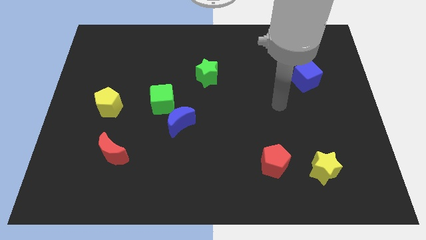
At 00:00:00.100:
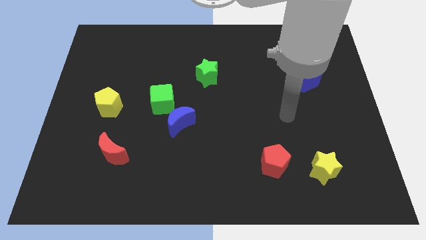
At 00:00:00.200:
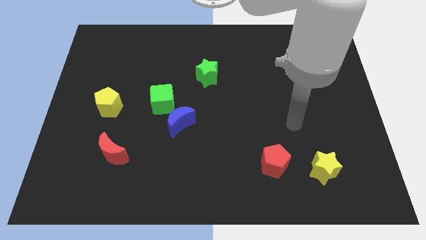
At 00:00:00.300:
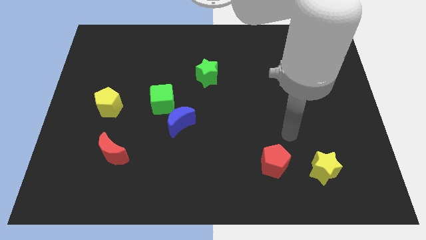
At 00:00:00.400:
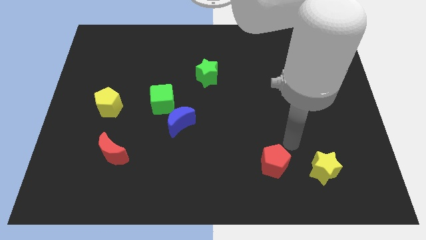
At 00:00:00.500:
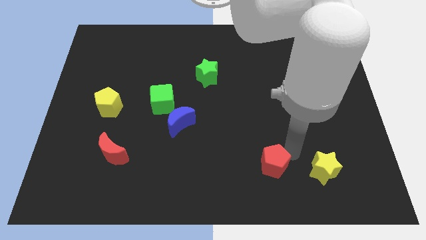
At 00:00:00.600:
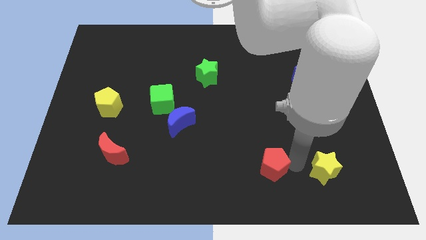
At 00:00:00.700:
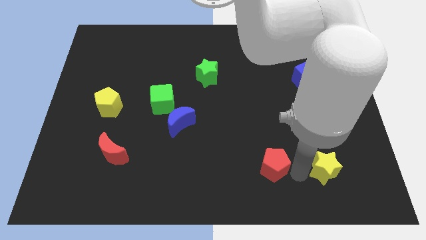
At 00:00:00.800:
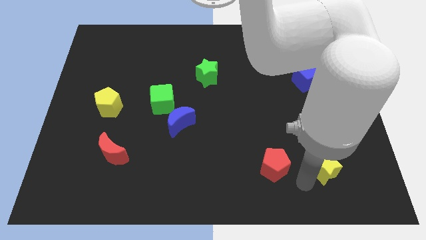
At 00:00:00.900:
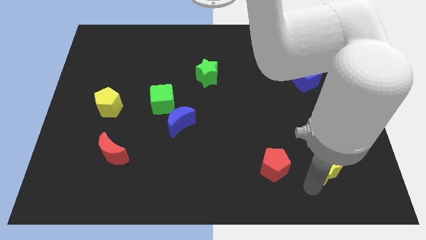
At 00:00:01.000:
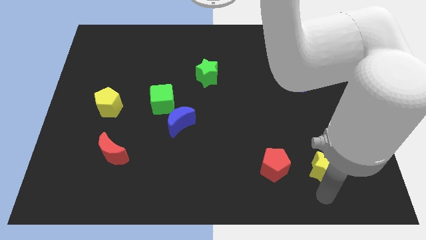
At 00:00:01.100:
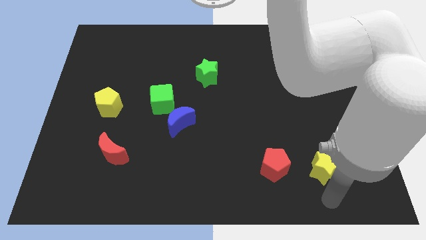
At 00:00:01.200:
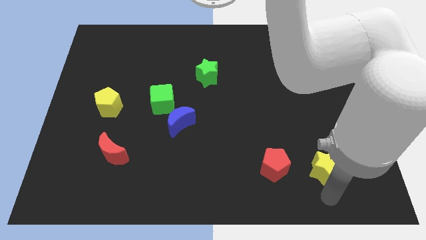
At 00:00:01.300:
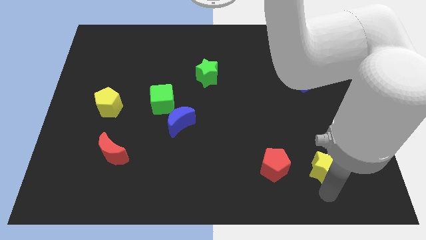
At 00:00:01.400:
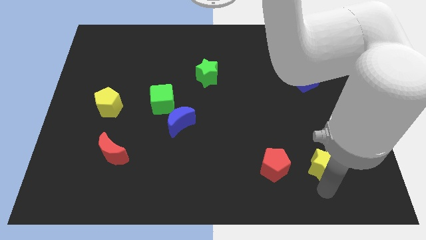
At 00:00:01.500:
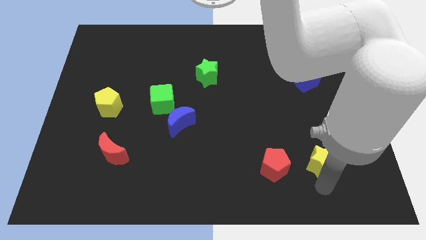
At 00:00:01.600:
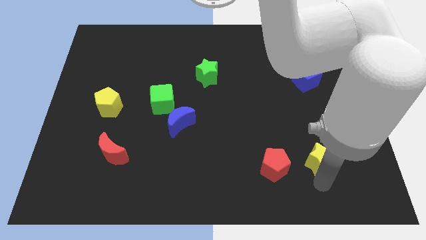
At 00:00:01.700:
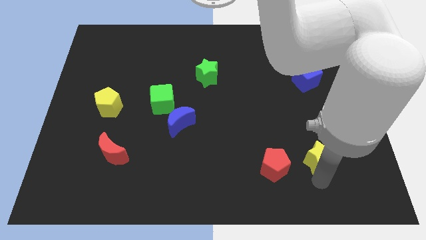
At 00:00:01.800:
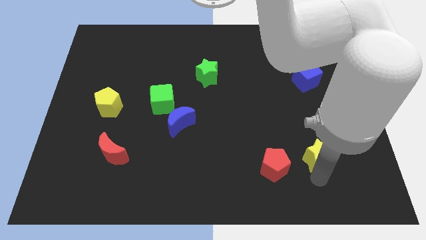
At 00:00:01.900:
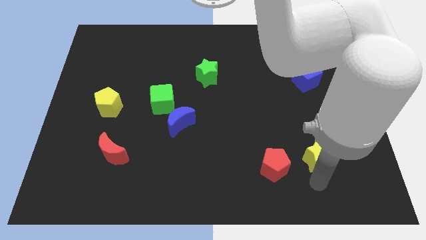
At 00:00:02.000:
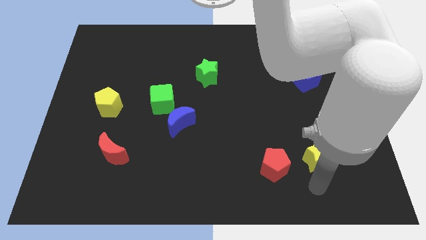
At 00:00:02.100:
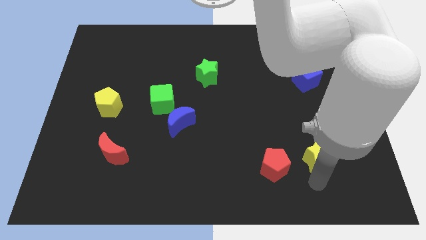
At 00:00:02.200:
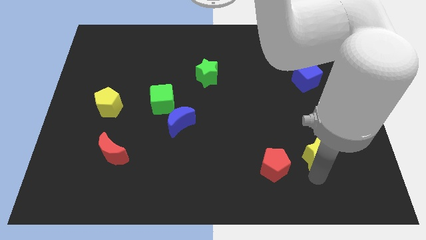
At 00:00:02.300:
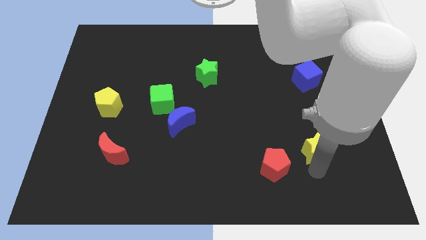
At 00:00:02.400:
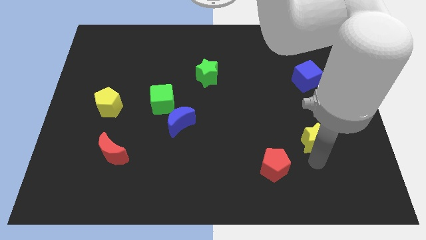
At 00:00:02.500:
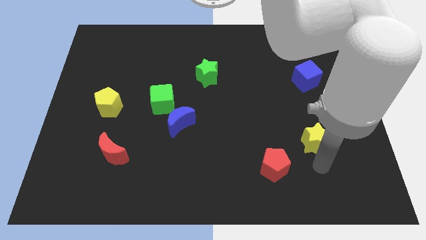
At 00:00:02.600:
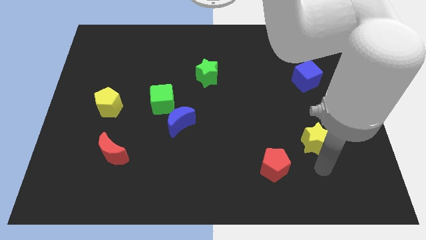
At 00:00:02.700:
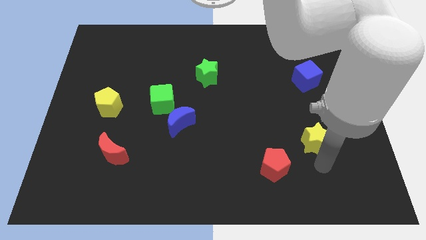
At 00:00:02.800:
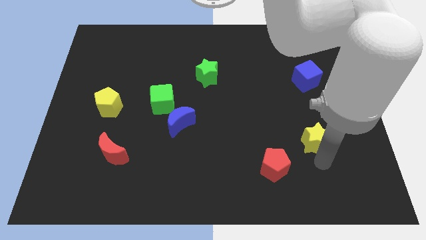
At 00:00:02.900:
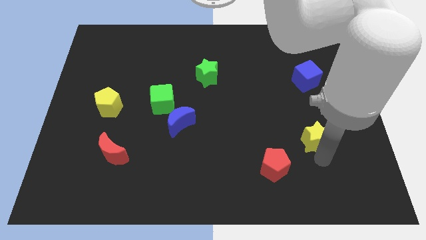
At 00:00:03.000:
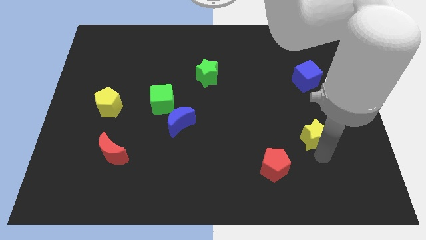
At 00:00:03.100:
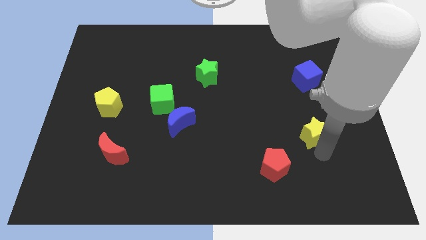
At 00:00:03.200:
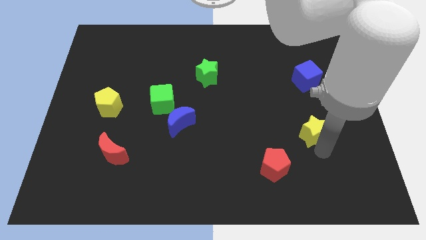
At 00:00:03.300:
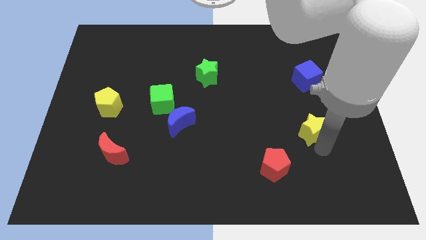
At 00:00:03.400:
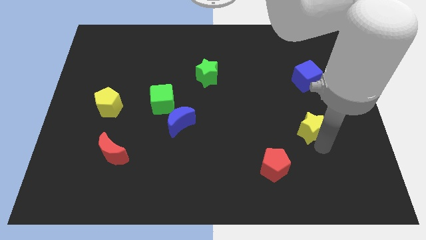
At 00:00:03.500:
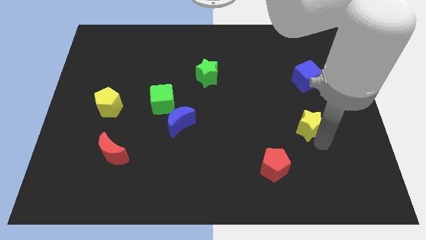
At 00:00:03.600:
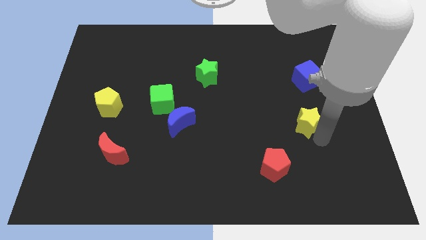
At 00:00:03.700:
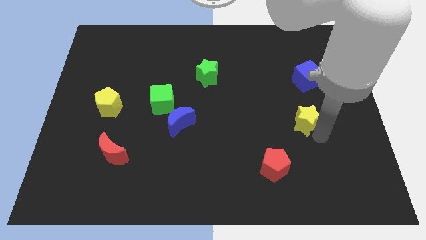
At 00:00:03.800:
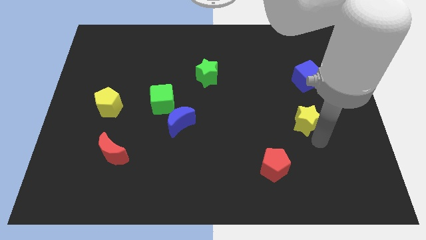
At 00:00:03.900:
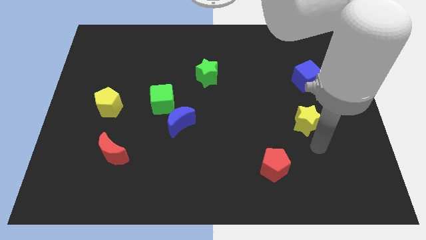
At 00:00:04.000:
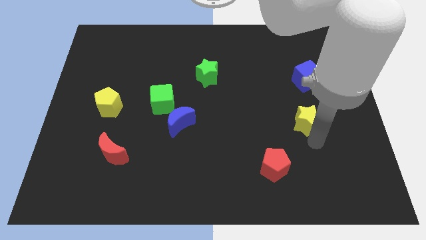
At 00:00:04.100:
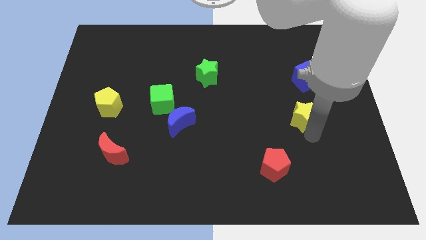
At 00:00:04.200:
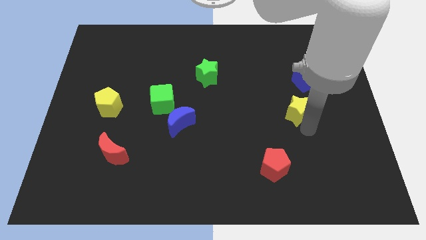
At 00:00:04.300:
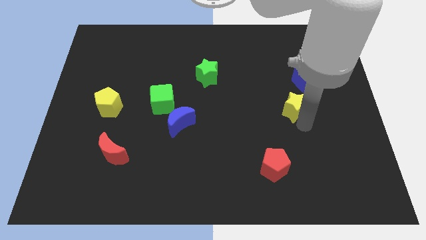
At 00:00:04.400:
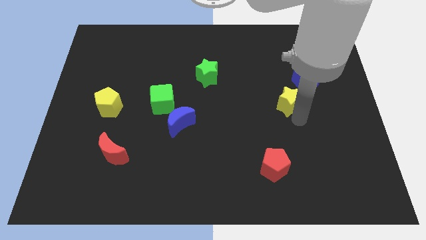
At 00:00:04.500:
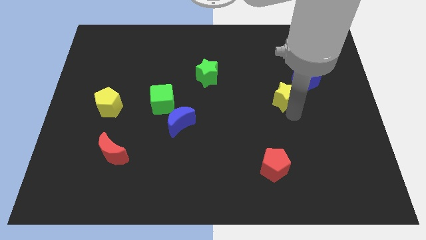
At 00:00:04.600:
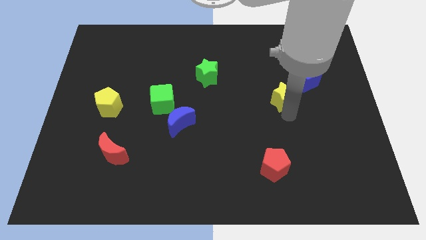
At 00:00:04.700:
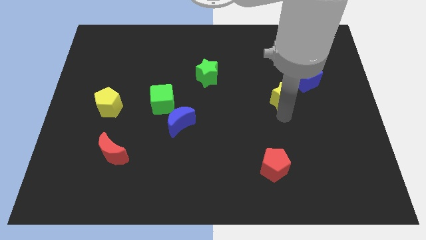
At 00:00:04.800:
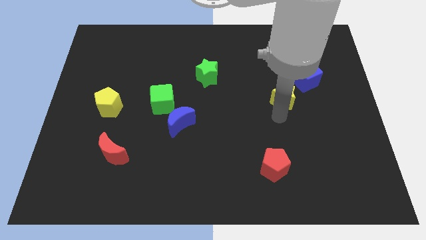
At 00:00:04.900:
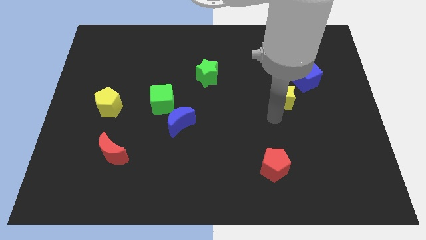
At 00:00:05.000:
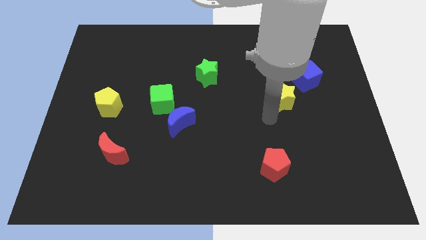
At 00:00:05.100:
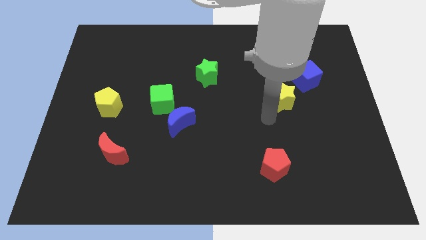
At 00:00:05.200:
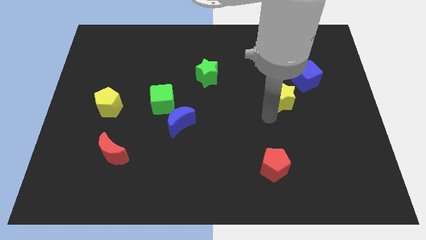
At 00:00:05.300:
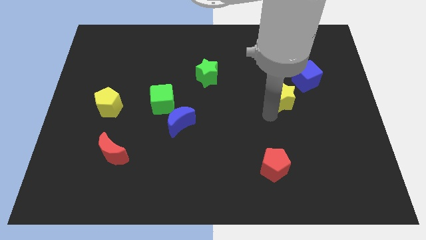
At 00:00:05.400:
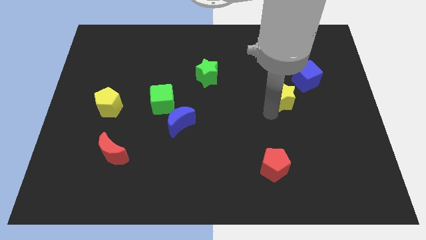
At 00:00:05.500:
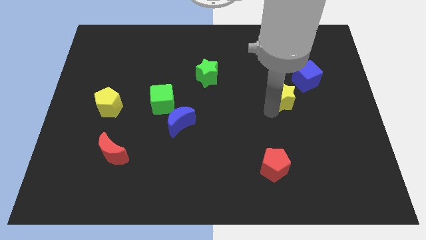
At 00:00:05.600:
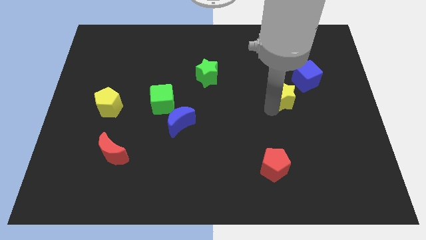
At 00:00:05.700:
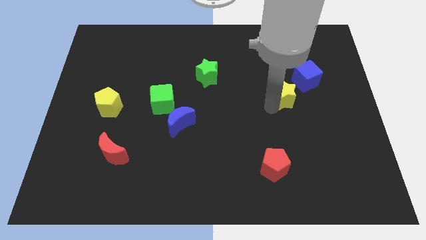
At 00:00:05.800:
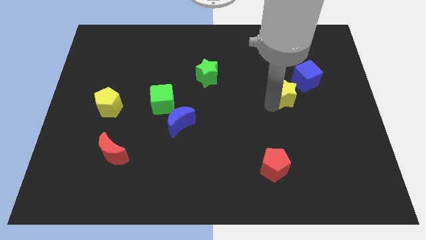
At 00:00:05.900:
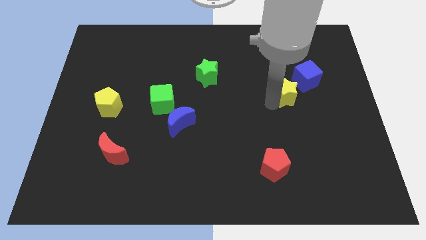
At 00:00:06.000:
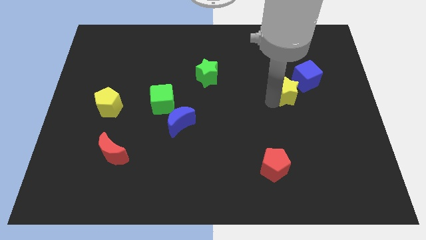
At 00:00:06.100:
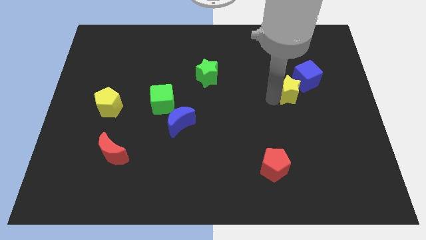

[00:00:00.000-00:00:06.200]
push the yellow star up

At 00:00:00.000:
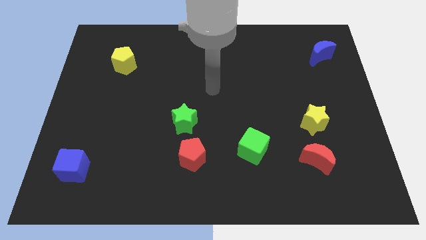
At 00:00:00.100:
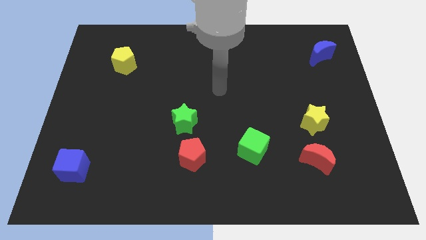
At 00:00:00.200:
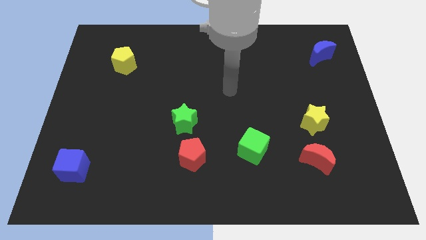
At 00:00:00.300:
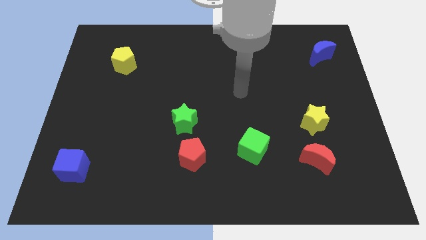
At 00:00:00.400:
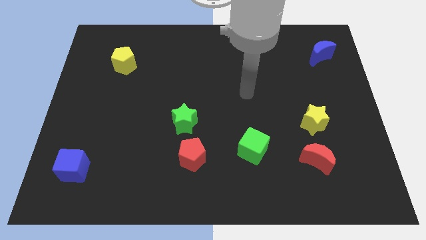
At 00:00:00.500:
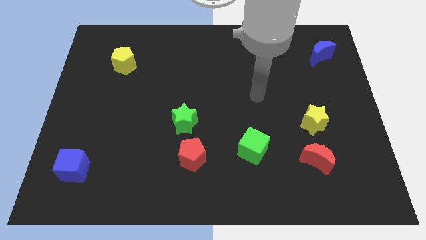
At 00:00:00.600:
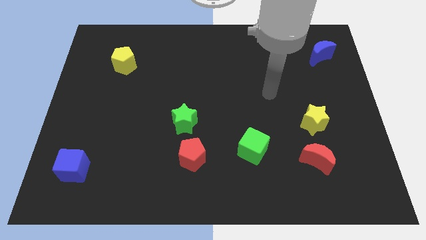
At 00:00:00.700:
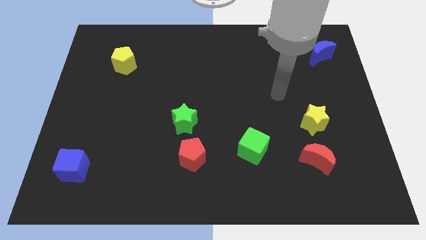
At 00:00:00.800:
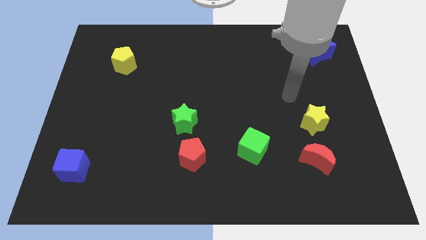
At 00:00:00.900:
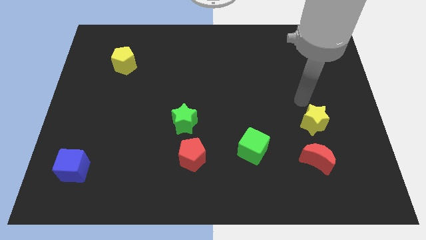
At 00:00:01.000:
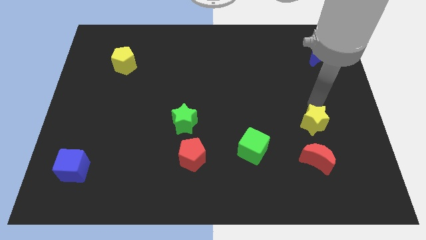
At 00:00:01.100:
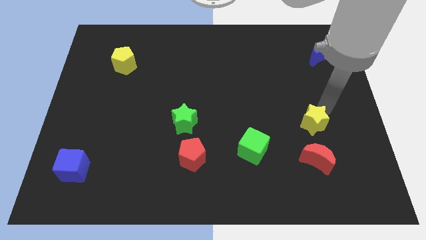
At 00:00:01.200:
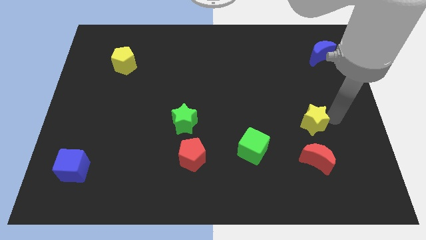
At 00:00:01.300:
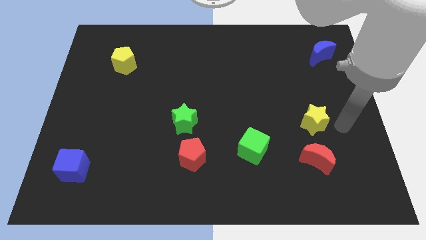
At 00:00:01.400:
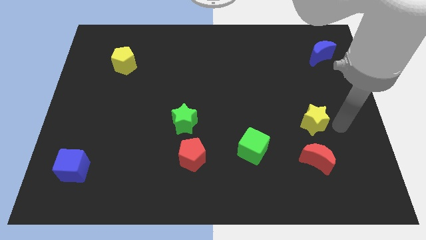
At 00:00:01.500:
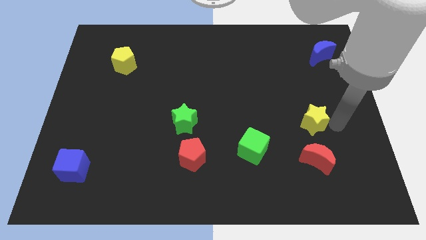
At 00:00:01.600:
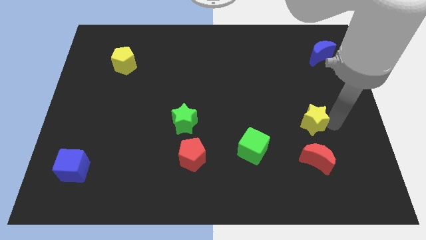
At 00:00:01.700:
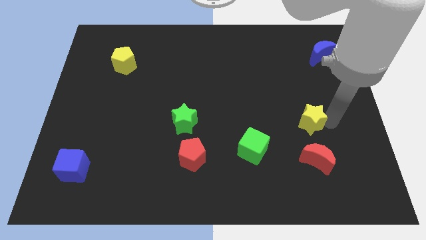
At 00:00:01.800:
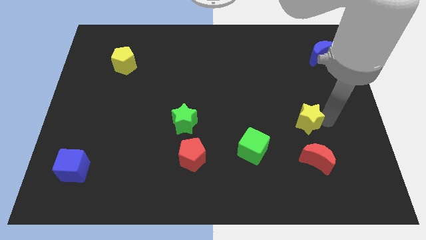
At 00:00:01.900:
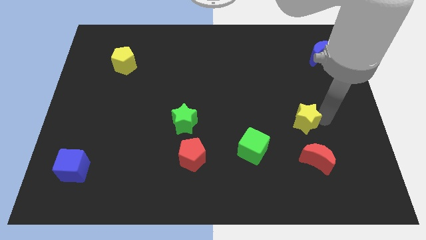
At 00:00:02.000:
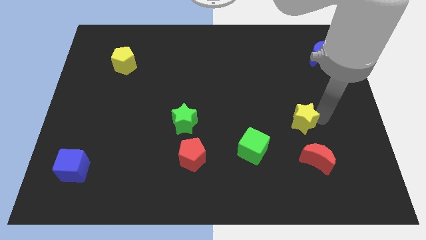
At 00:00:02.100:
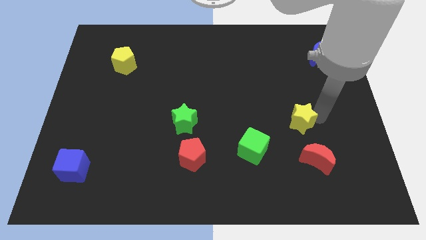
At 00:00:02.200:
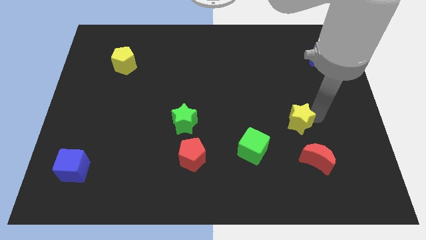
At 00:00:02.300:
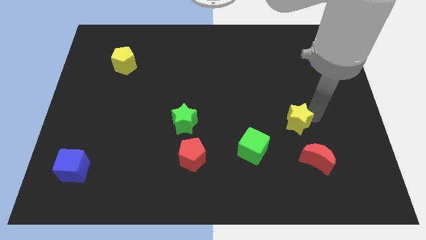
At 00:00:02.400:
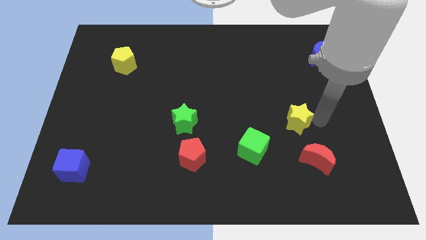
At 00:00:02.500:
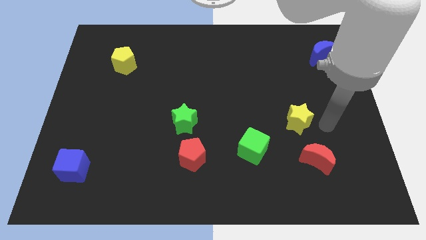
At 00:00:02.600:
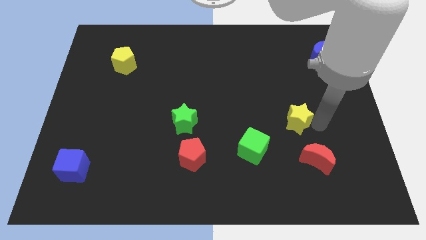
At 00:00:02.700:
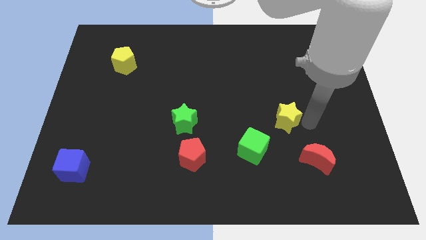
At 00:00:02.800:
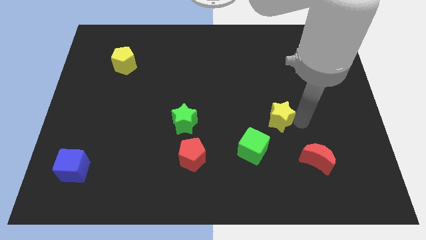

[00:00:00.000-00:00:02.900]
slide the yellow star to the left slightly
